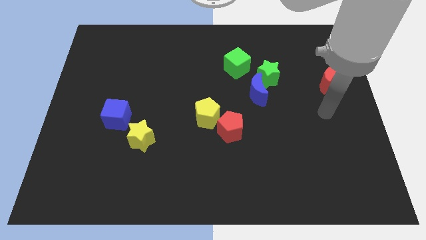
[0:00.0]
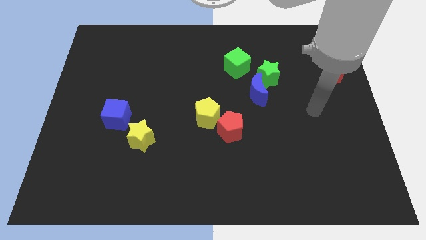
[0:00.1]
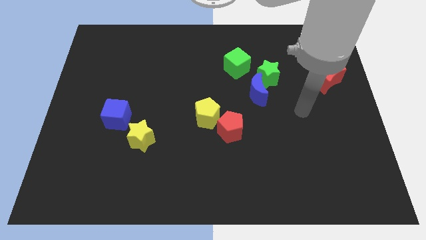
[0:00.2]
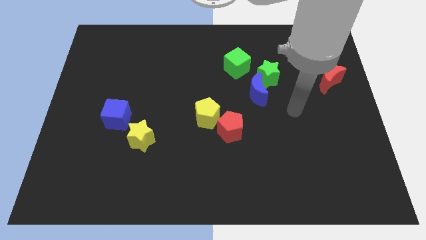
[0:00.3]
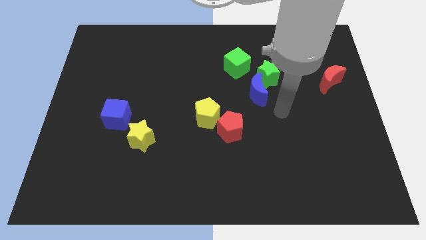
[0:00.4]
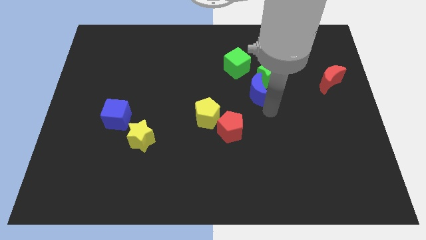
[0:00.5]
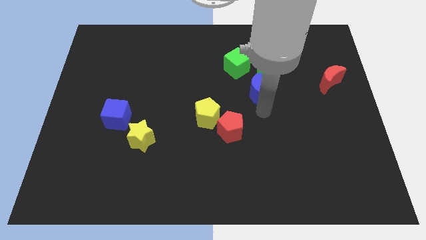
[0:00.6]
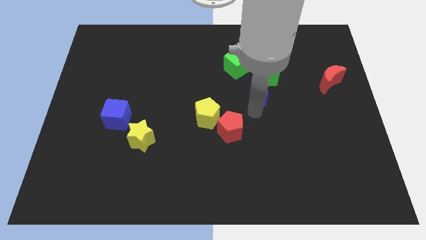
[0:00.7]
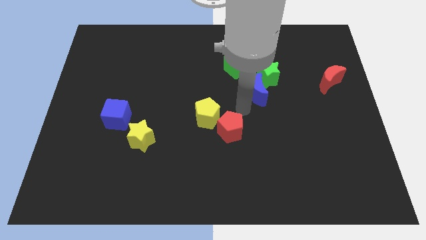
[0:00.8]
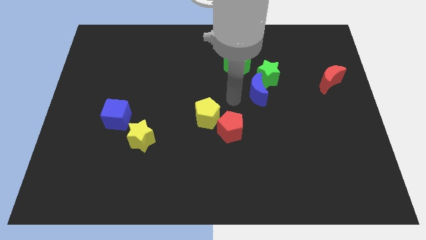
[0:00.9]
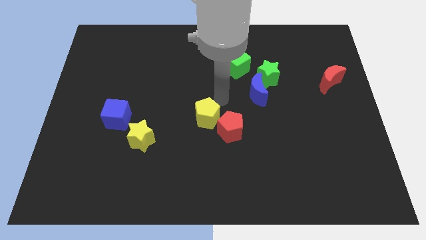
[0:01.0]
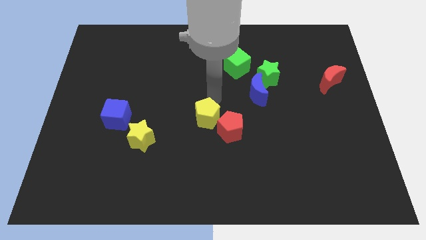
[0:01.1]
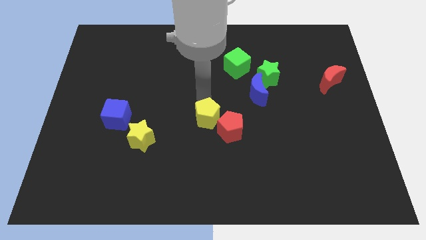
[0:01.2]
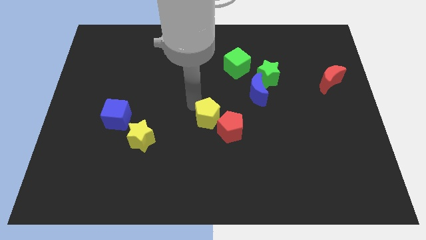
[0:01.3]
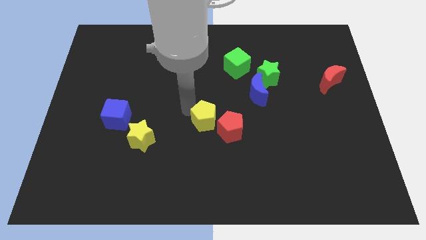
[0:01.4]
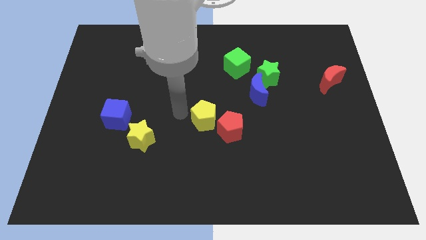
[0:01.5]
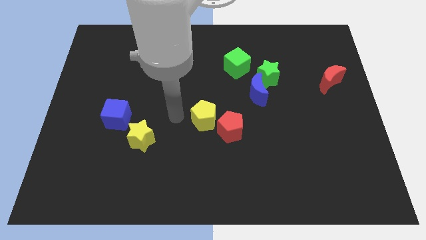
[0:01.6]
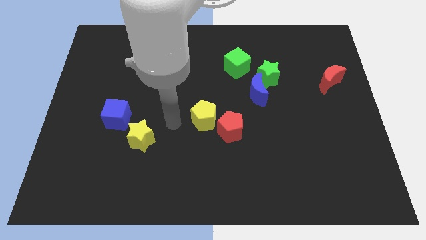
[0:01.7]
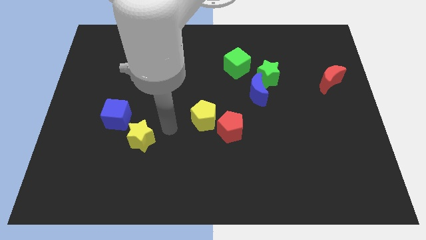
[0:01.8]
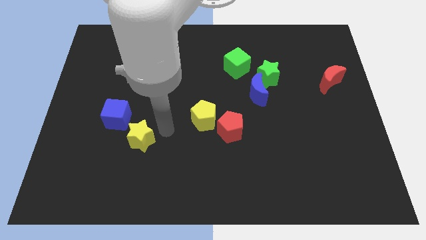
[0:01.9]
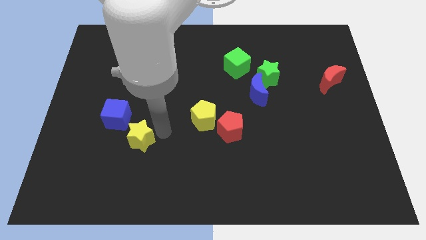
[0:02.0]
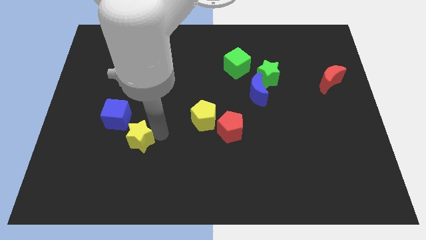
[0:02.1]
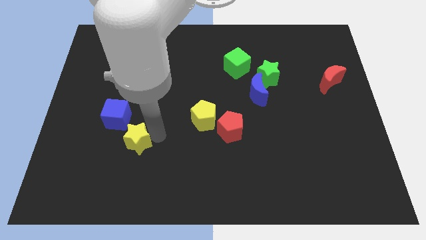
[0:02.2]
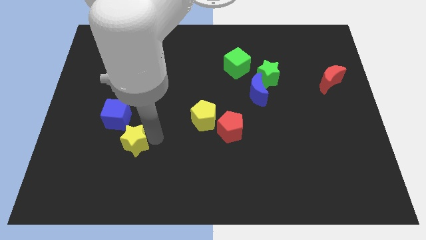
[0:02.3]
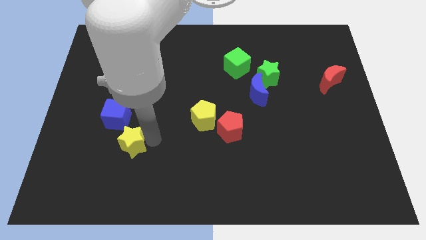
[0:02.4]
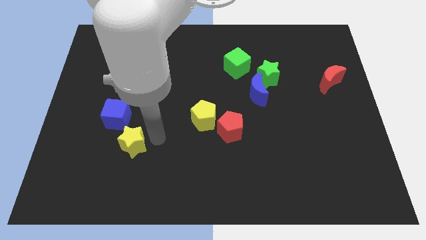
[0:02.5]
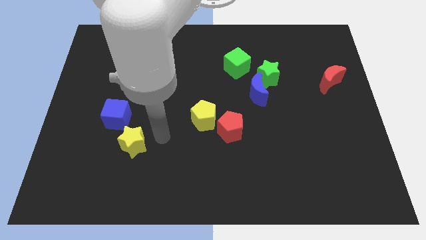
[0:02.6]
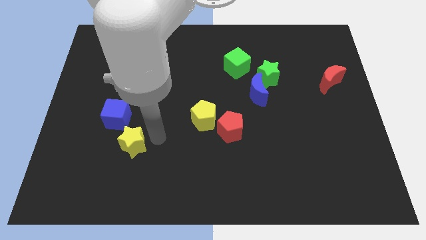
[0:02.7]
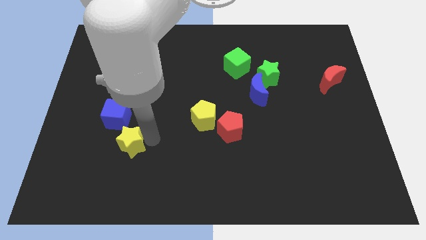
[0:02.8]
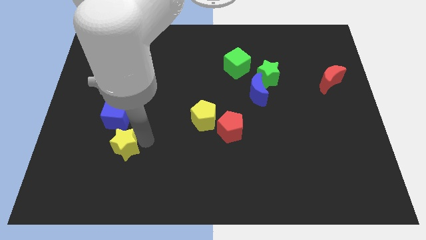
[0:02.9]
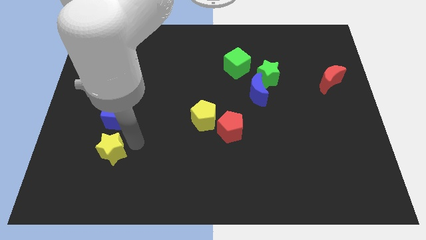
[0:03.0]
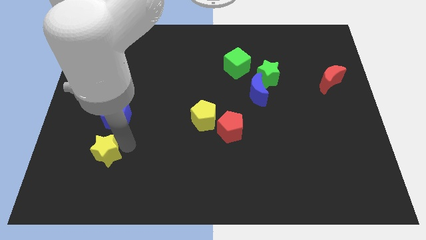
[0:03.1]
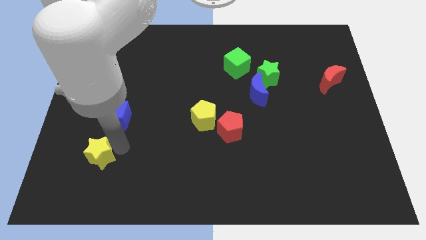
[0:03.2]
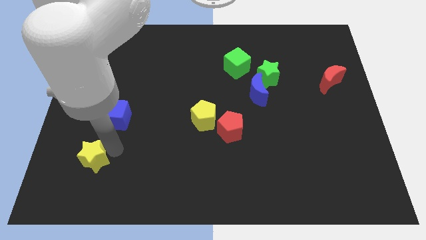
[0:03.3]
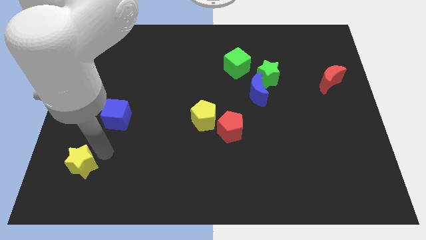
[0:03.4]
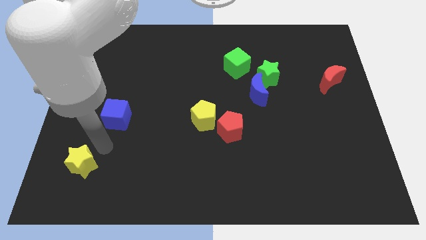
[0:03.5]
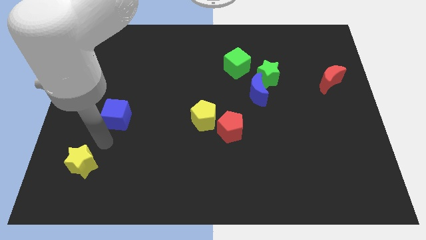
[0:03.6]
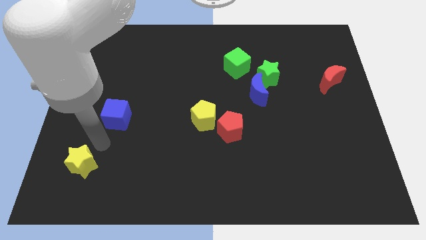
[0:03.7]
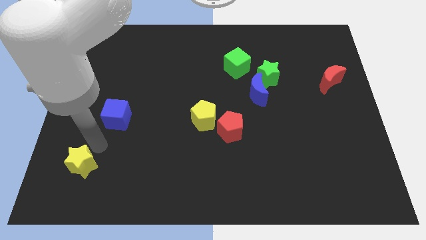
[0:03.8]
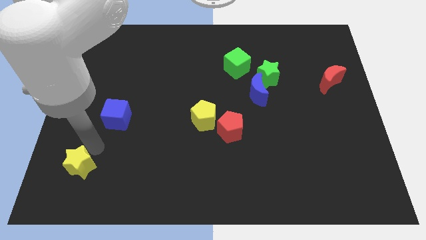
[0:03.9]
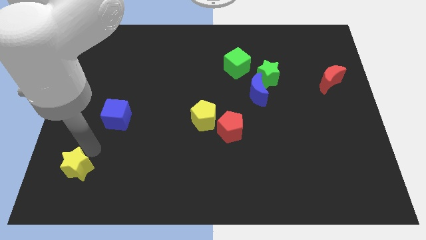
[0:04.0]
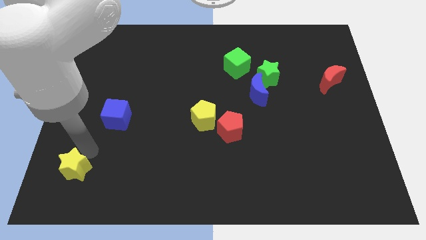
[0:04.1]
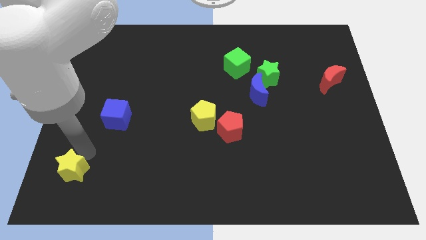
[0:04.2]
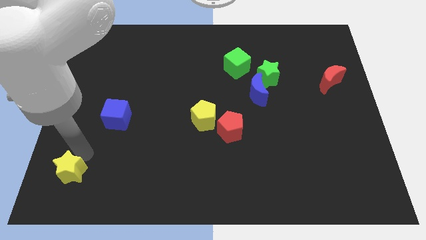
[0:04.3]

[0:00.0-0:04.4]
slide the yellow star to the bottom left corner

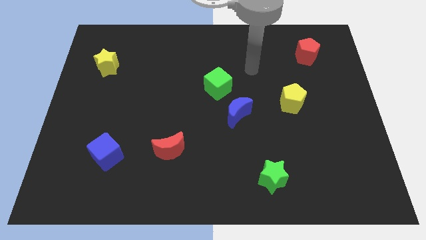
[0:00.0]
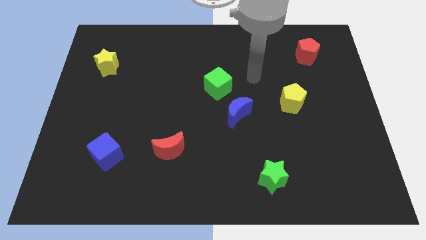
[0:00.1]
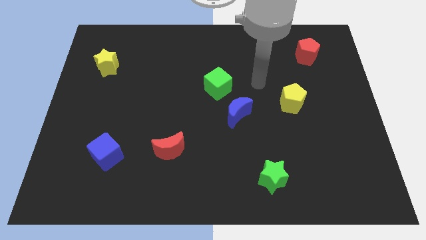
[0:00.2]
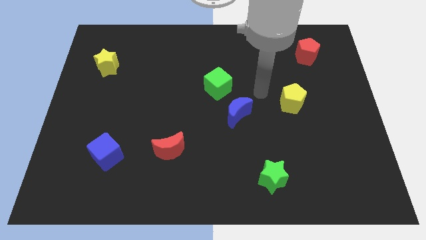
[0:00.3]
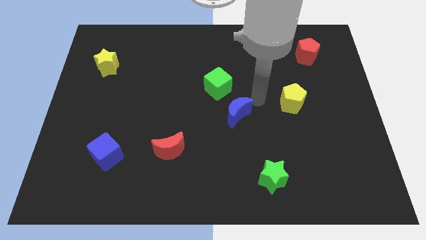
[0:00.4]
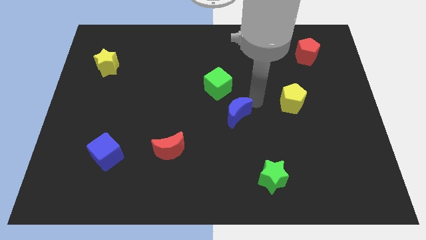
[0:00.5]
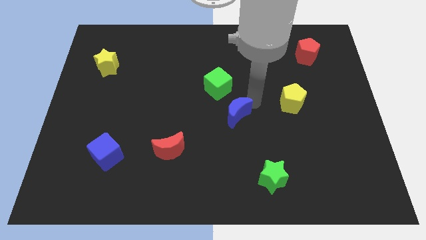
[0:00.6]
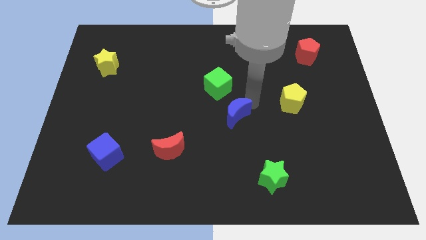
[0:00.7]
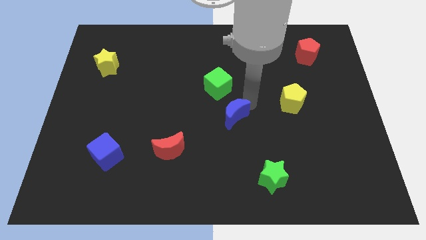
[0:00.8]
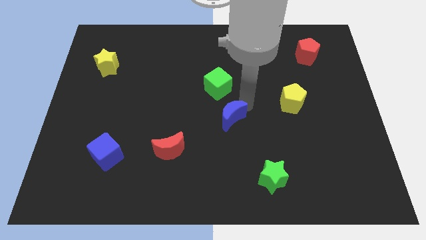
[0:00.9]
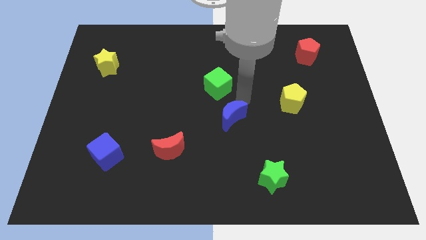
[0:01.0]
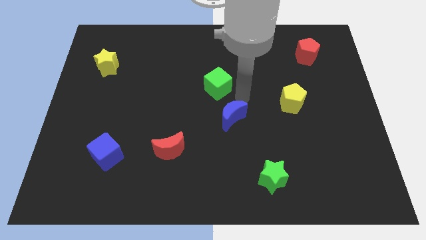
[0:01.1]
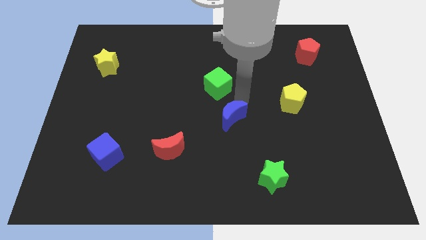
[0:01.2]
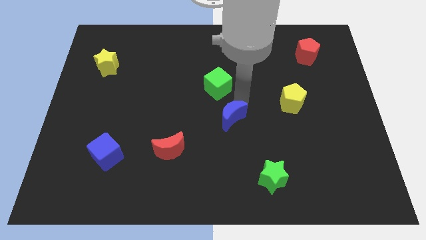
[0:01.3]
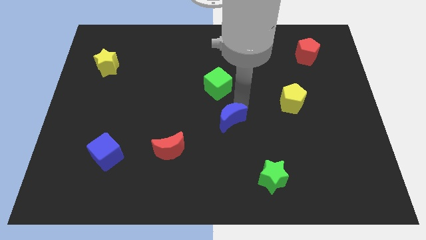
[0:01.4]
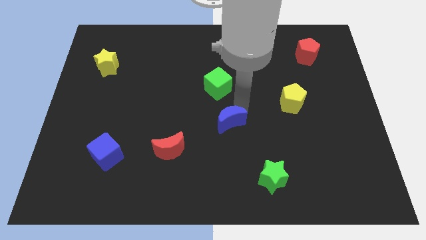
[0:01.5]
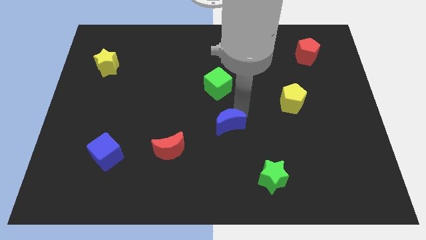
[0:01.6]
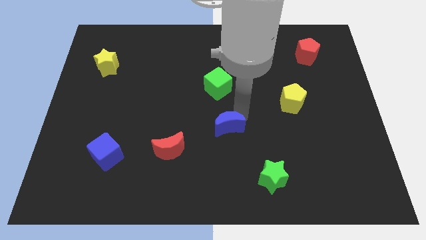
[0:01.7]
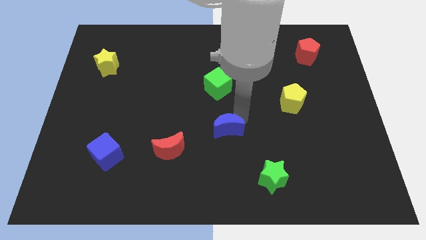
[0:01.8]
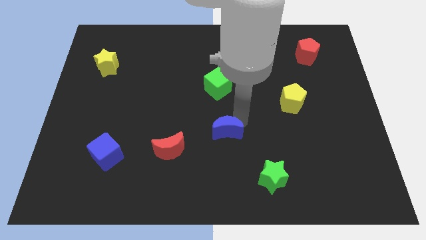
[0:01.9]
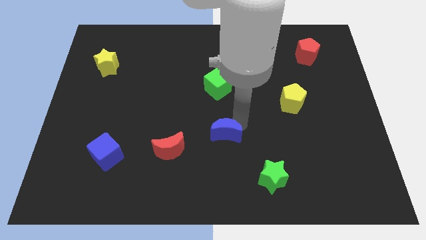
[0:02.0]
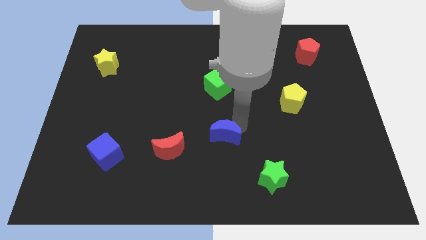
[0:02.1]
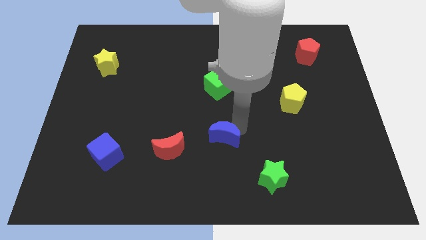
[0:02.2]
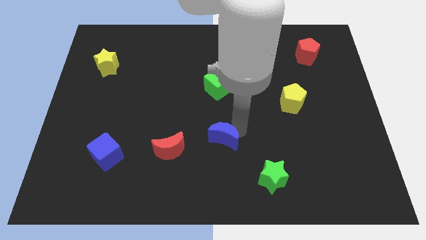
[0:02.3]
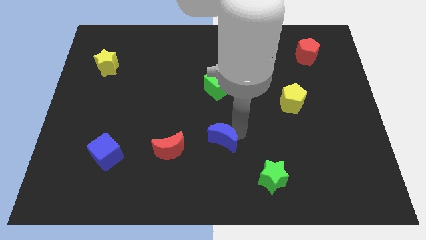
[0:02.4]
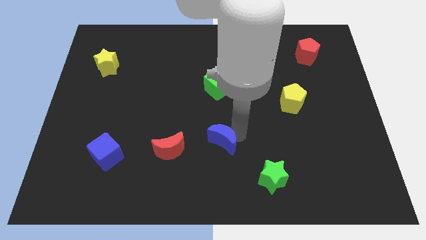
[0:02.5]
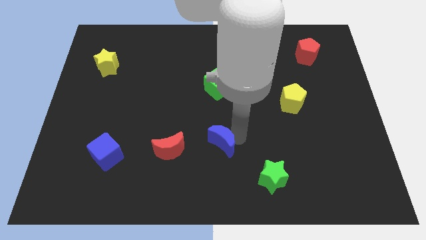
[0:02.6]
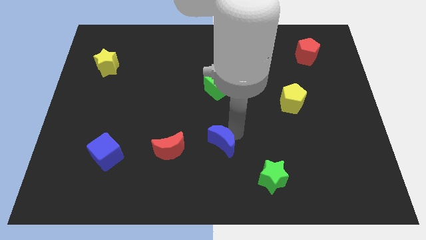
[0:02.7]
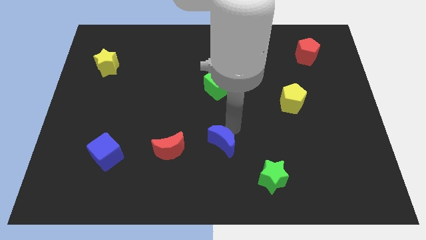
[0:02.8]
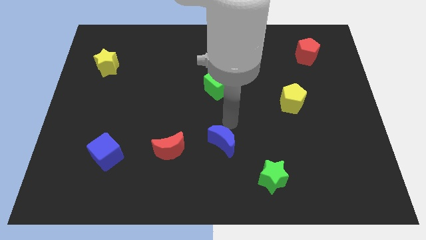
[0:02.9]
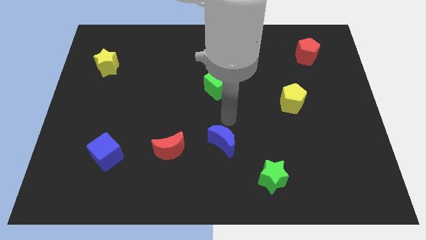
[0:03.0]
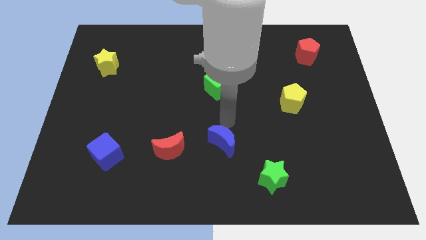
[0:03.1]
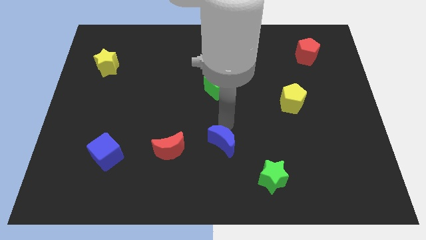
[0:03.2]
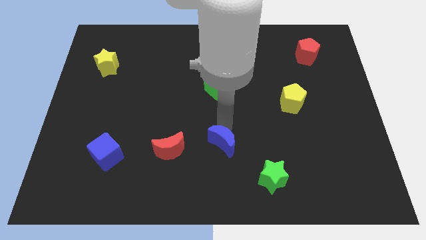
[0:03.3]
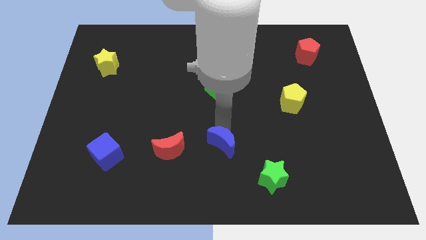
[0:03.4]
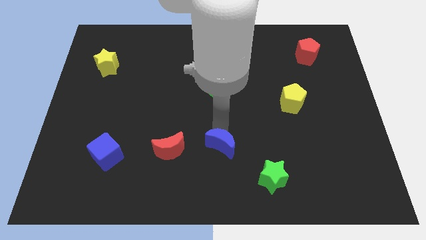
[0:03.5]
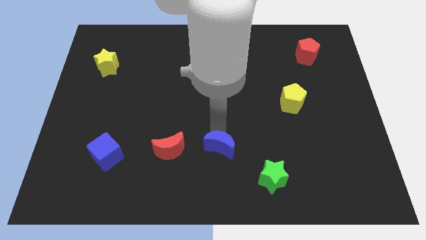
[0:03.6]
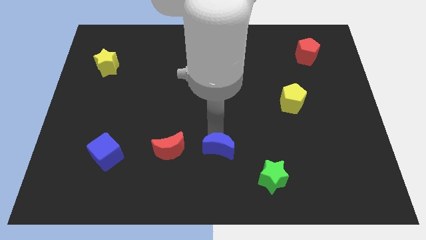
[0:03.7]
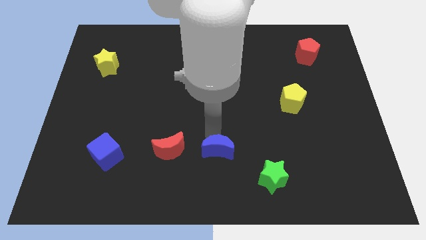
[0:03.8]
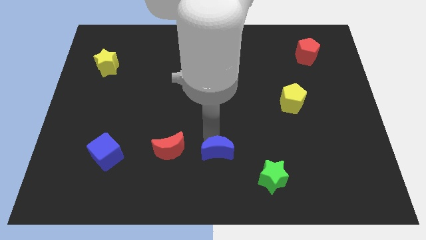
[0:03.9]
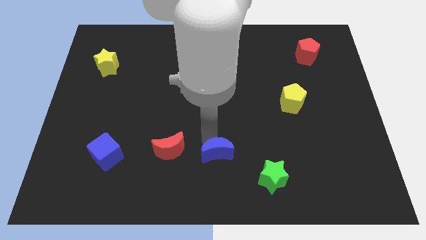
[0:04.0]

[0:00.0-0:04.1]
put the blue moon to the bottom side
